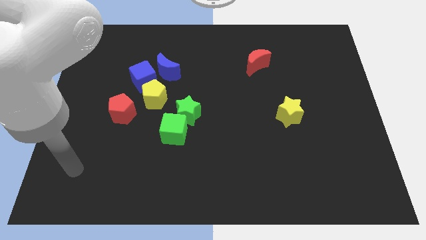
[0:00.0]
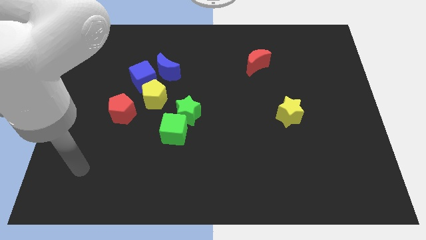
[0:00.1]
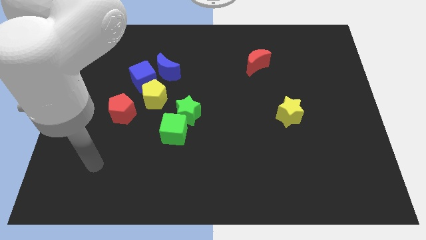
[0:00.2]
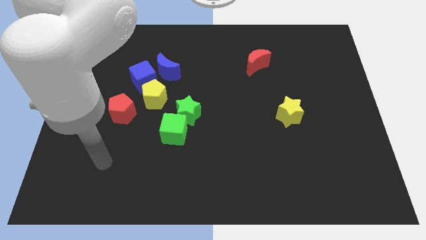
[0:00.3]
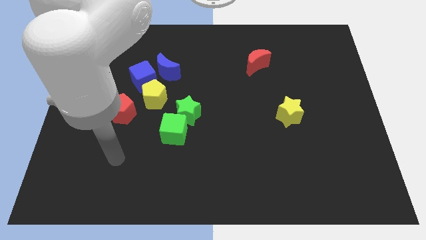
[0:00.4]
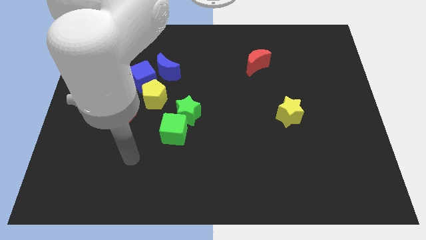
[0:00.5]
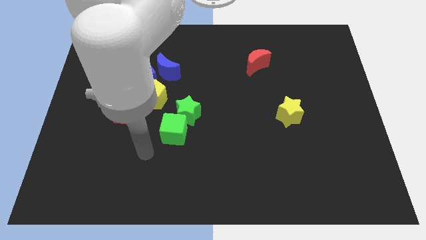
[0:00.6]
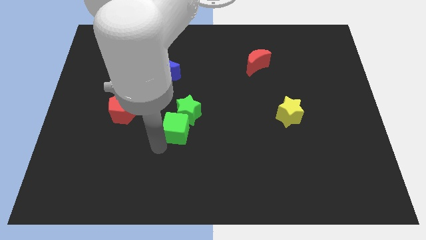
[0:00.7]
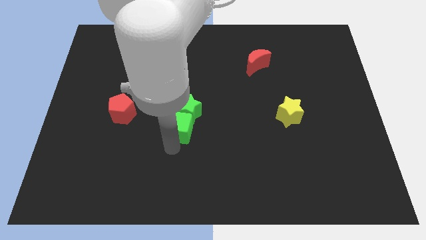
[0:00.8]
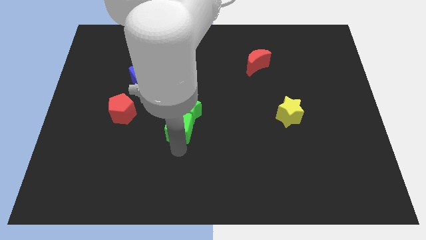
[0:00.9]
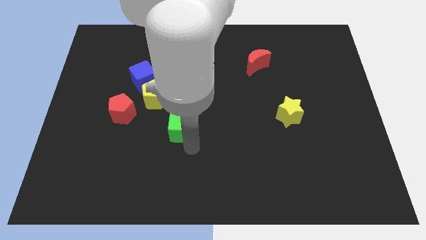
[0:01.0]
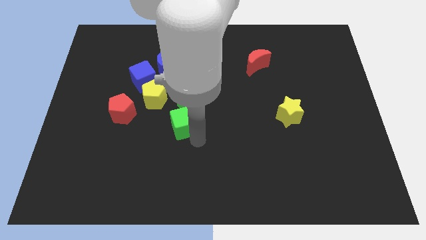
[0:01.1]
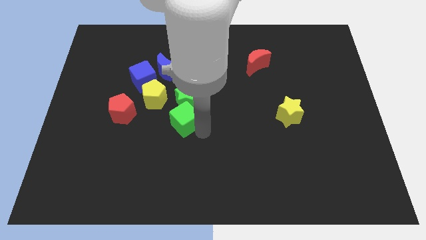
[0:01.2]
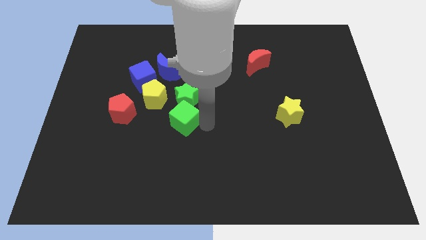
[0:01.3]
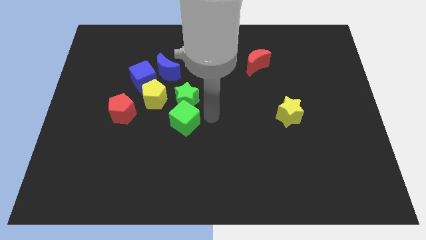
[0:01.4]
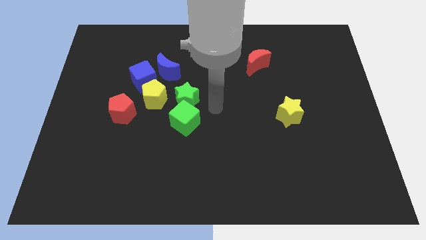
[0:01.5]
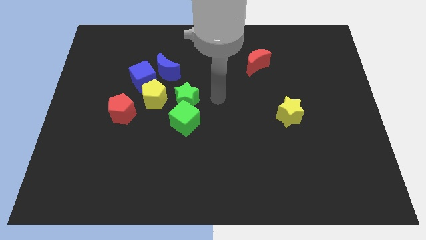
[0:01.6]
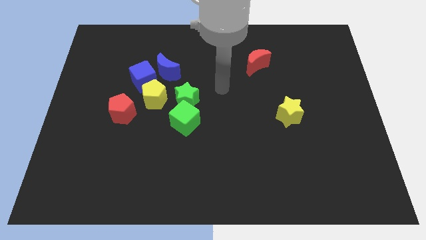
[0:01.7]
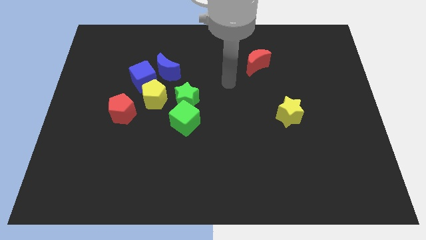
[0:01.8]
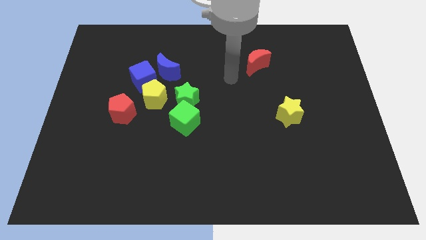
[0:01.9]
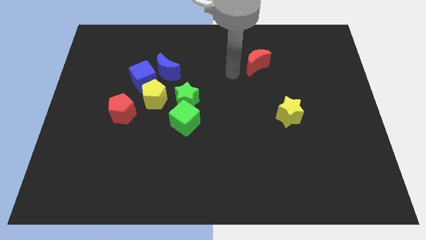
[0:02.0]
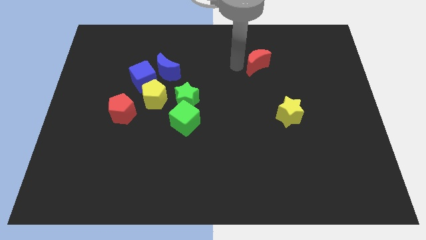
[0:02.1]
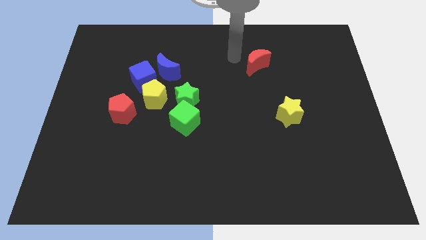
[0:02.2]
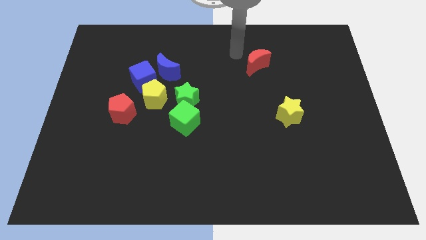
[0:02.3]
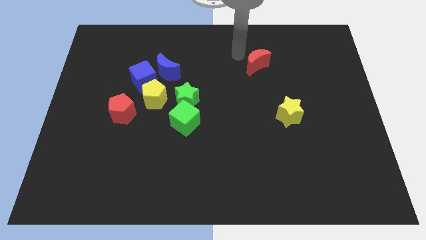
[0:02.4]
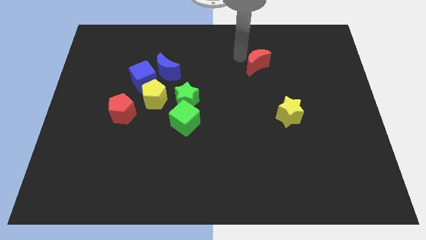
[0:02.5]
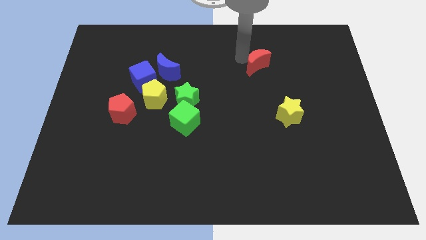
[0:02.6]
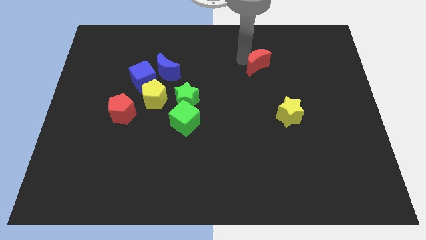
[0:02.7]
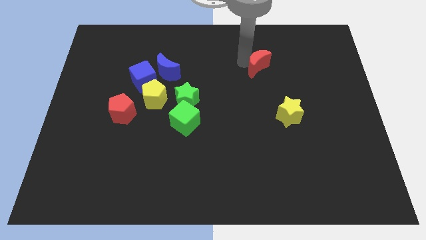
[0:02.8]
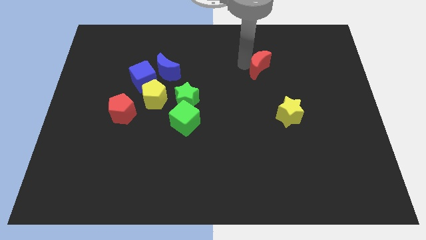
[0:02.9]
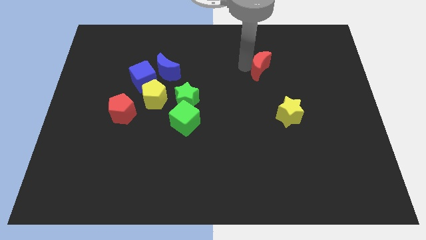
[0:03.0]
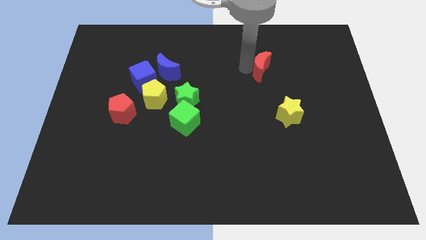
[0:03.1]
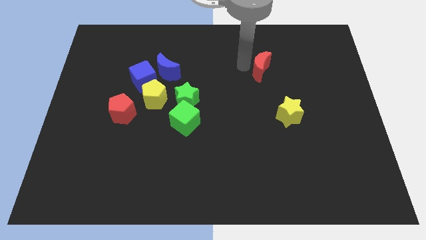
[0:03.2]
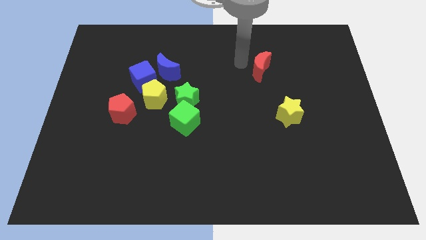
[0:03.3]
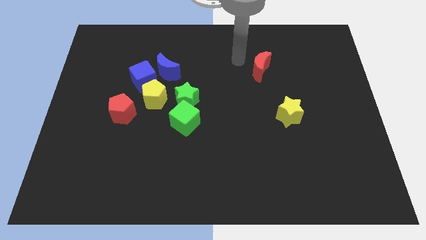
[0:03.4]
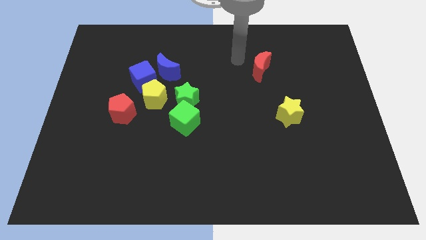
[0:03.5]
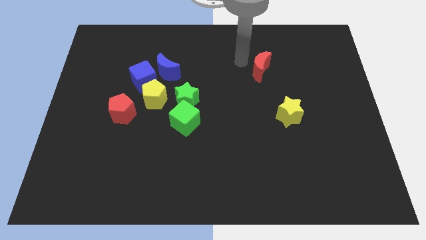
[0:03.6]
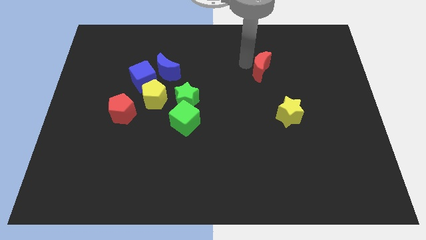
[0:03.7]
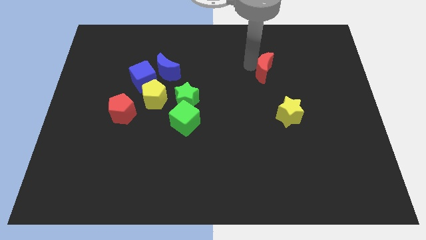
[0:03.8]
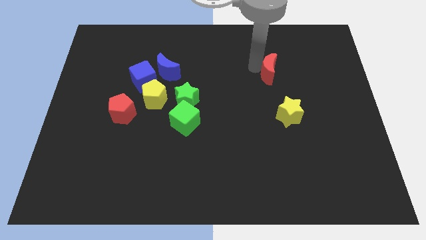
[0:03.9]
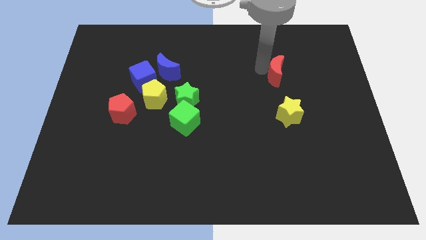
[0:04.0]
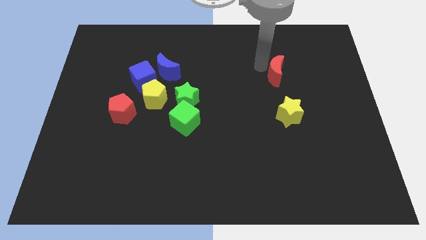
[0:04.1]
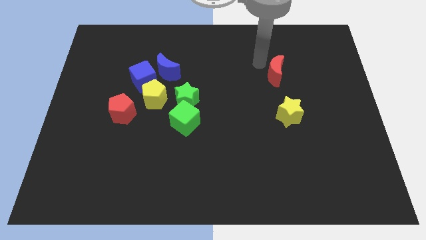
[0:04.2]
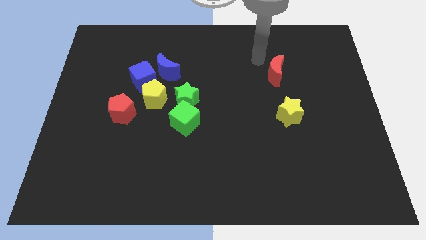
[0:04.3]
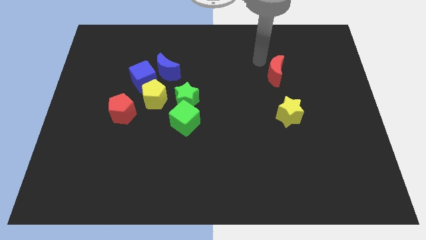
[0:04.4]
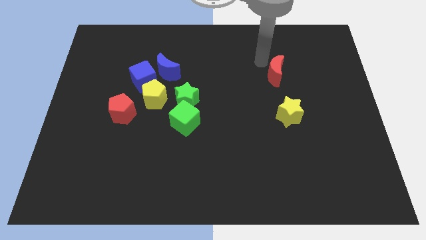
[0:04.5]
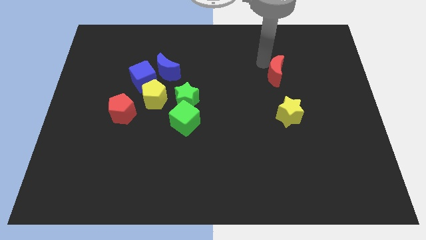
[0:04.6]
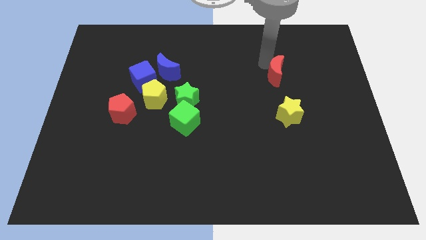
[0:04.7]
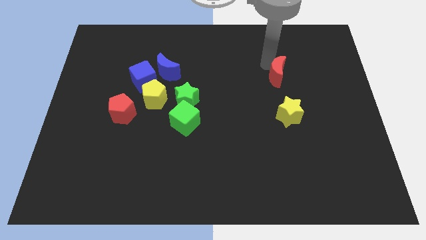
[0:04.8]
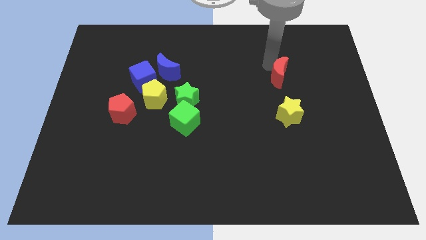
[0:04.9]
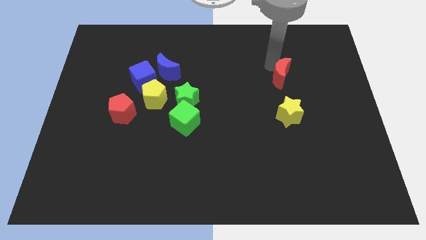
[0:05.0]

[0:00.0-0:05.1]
slide the red moon down and then to the right a little bit

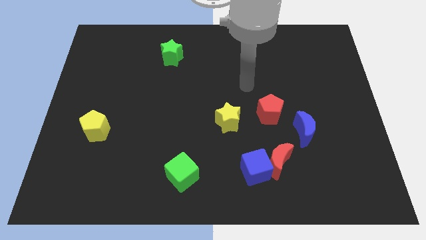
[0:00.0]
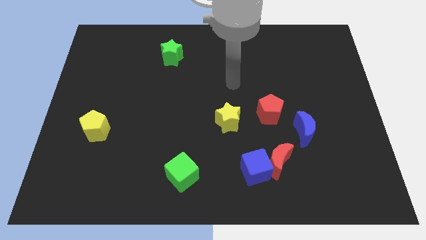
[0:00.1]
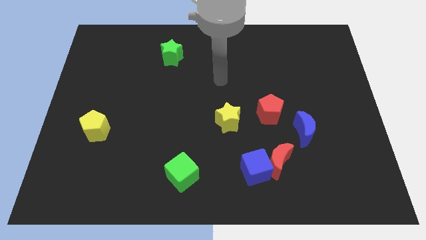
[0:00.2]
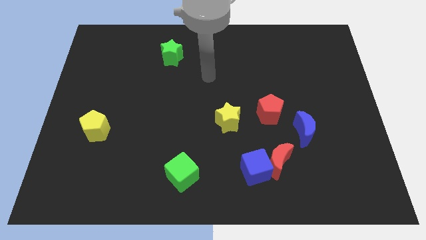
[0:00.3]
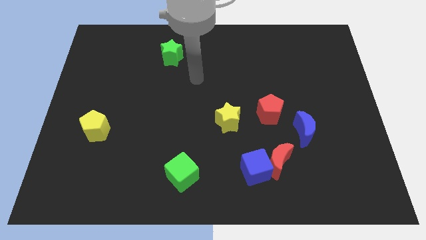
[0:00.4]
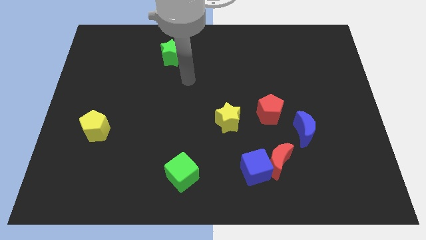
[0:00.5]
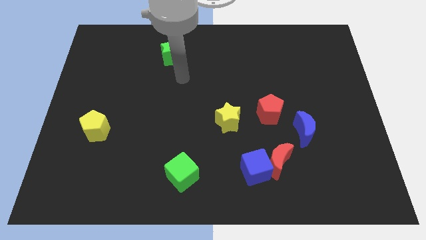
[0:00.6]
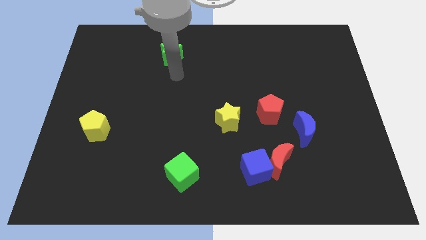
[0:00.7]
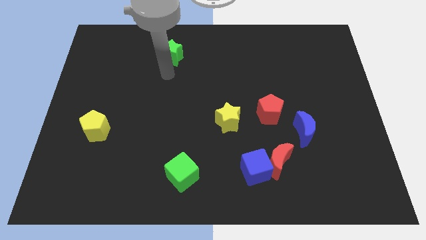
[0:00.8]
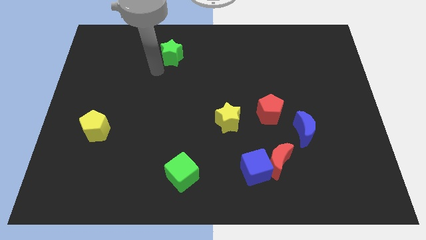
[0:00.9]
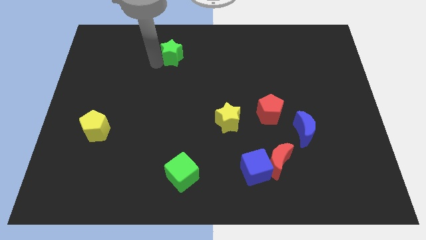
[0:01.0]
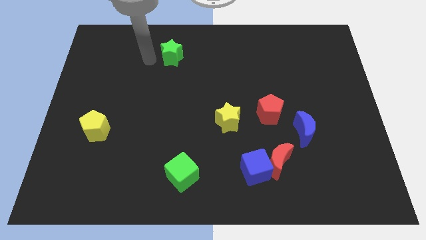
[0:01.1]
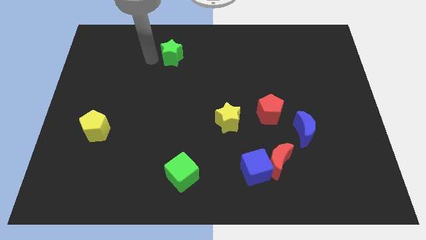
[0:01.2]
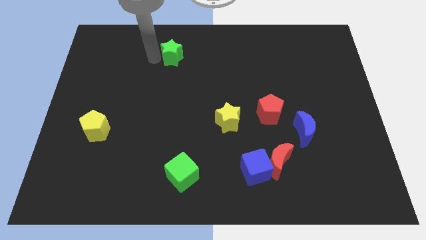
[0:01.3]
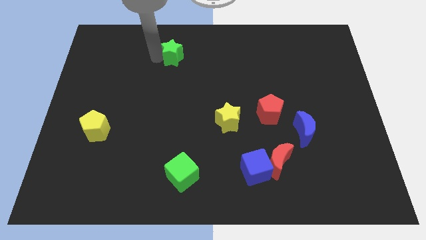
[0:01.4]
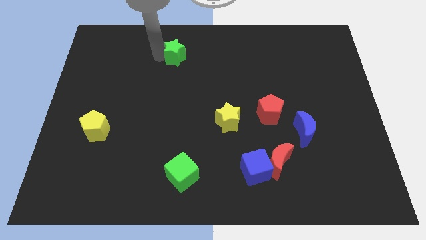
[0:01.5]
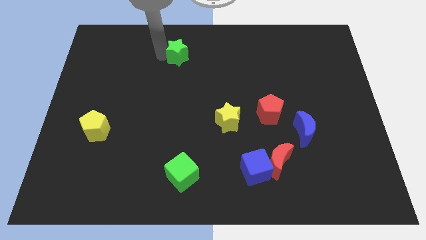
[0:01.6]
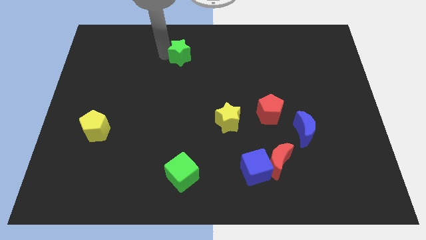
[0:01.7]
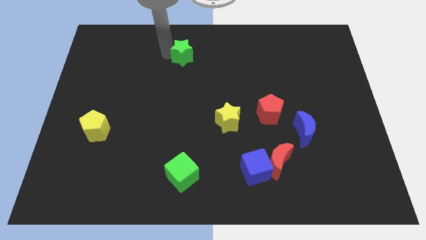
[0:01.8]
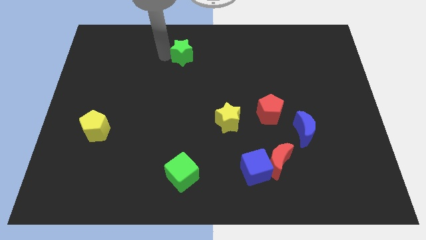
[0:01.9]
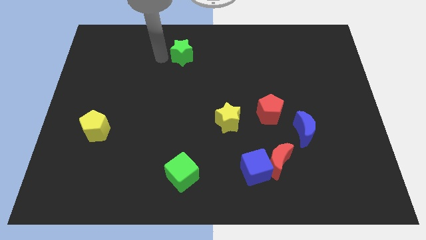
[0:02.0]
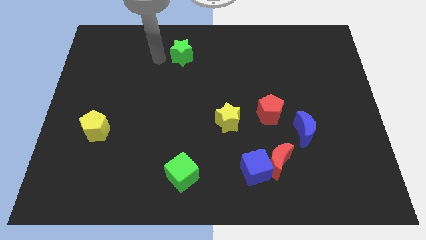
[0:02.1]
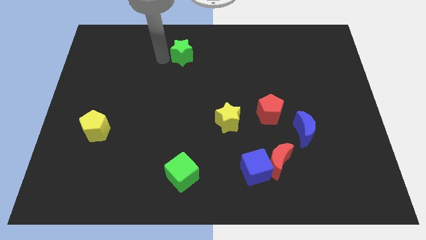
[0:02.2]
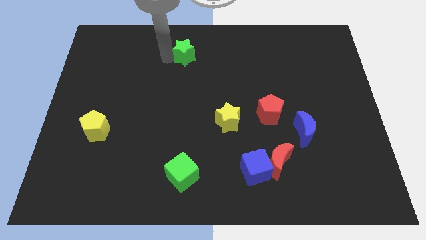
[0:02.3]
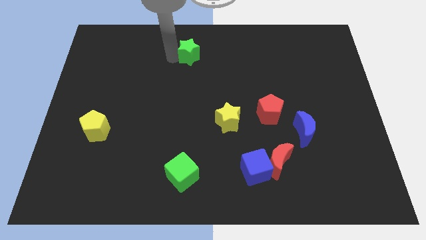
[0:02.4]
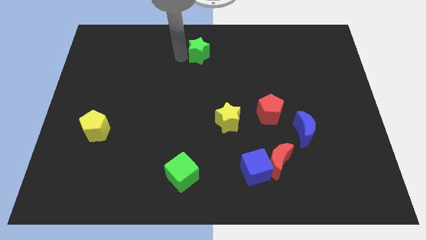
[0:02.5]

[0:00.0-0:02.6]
slightly slide the green star right

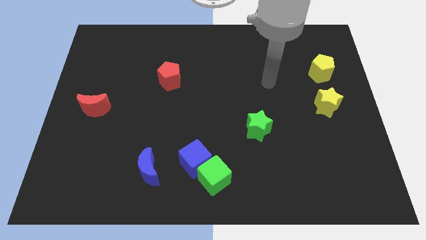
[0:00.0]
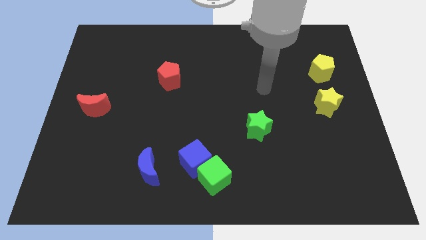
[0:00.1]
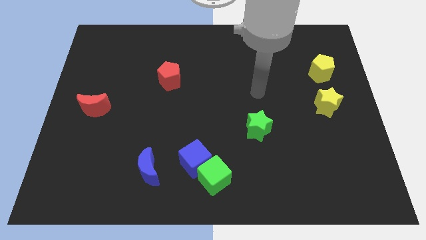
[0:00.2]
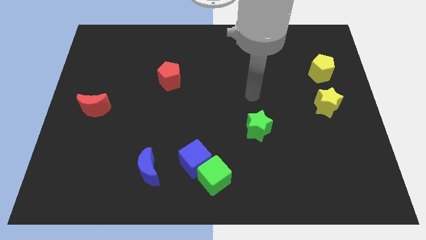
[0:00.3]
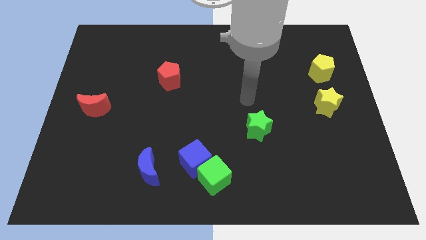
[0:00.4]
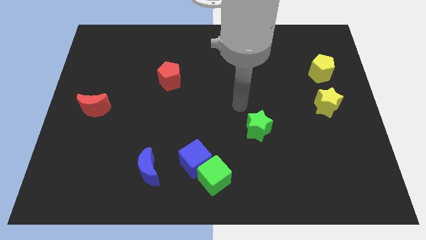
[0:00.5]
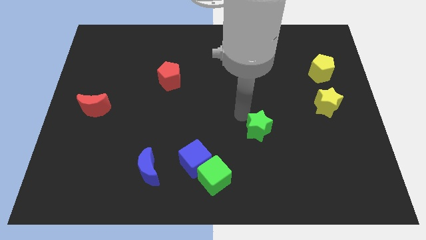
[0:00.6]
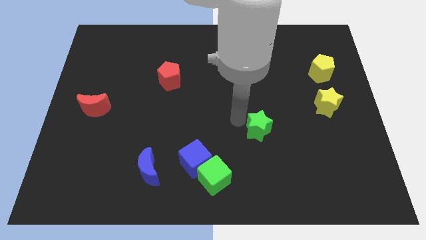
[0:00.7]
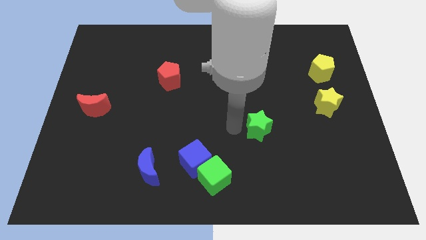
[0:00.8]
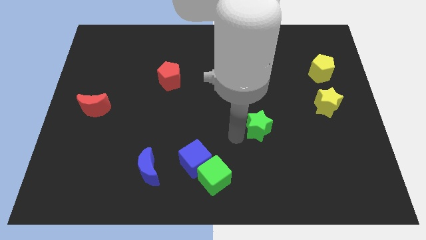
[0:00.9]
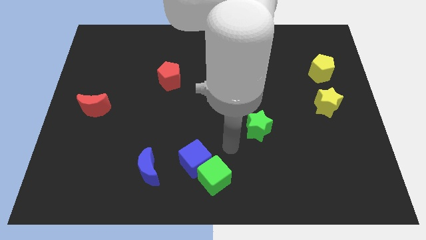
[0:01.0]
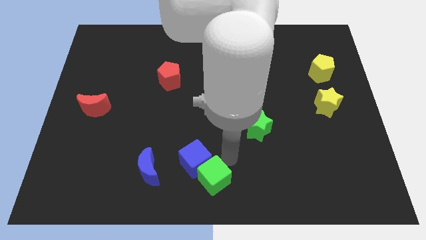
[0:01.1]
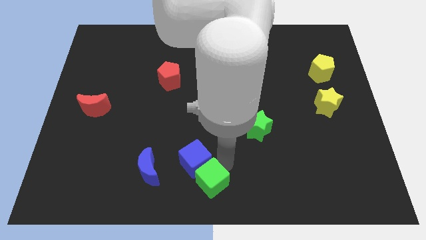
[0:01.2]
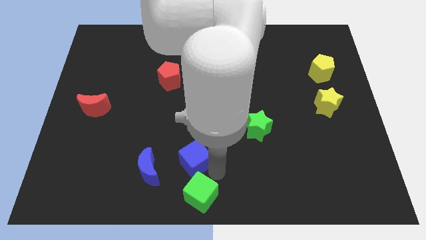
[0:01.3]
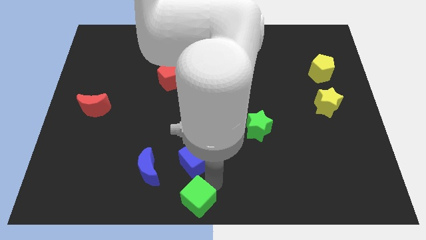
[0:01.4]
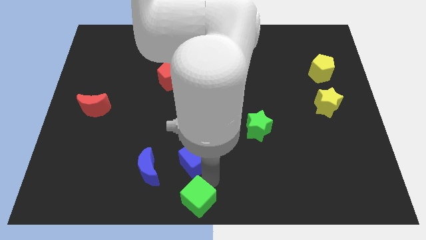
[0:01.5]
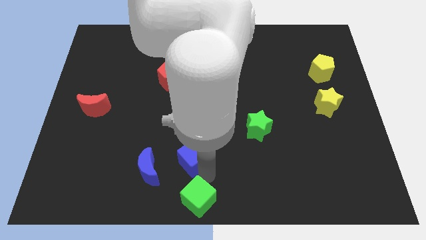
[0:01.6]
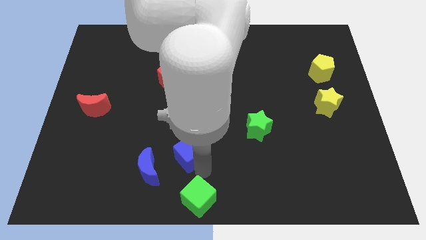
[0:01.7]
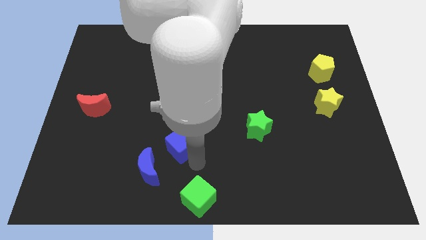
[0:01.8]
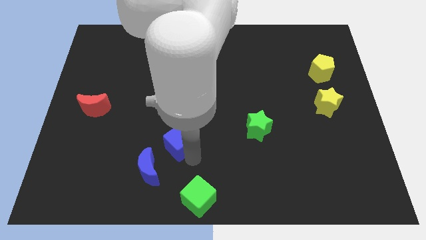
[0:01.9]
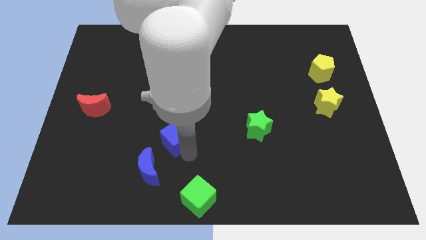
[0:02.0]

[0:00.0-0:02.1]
push the blue cube up and left diagonally a bit
